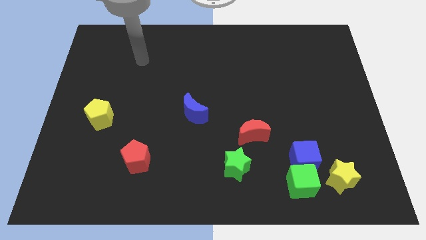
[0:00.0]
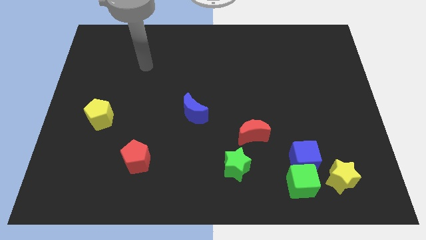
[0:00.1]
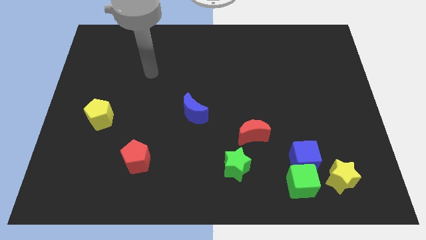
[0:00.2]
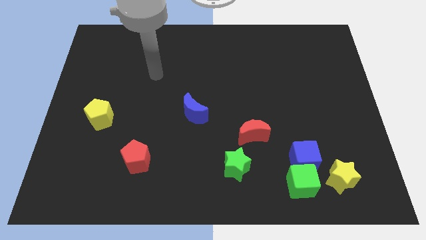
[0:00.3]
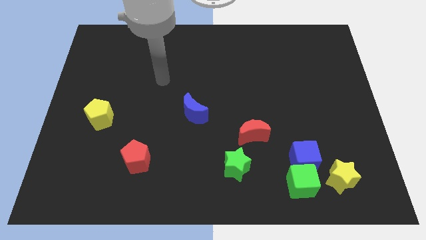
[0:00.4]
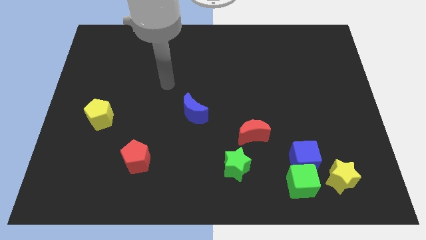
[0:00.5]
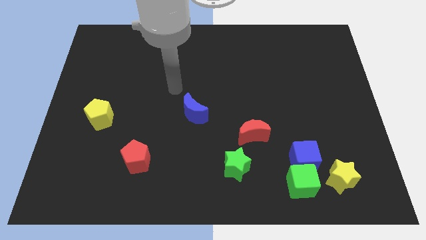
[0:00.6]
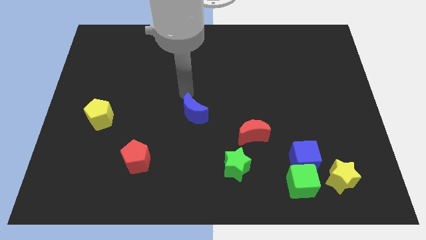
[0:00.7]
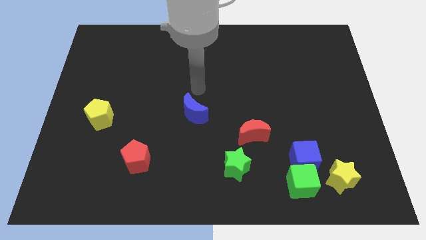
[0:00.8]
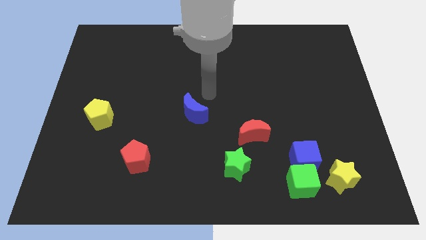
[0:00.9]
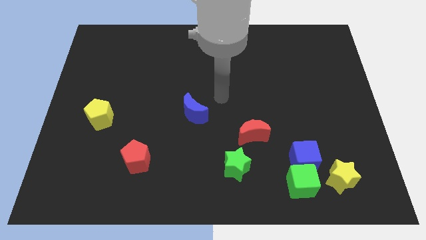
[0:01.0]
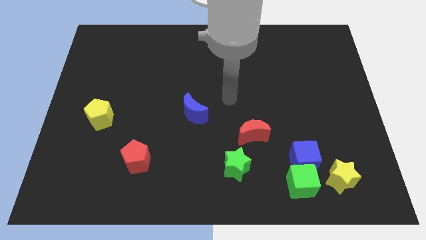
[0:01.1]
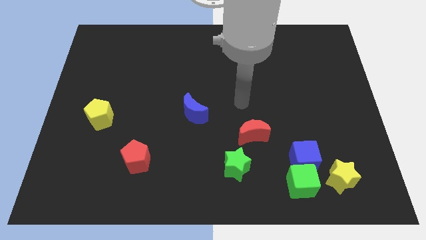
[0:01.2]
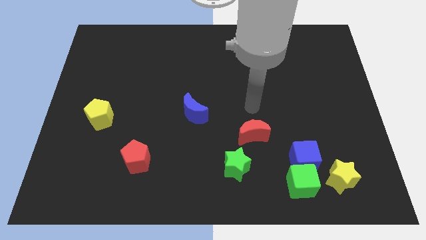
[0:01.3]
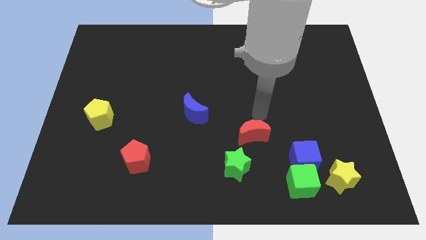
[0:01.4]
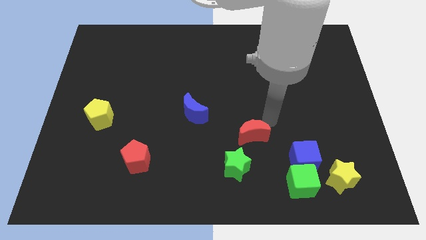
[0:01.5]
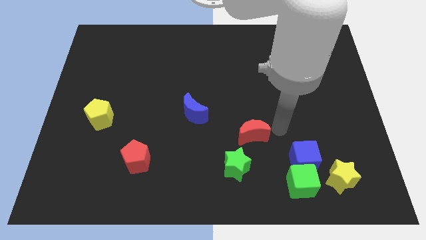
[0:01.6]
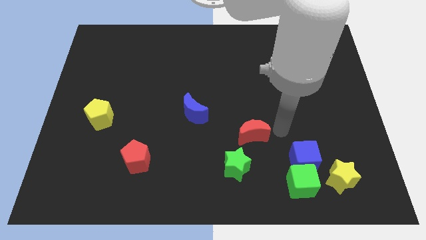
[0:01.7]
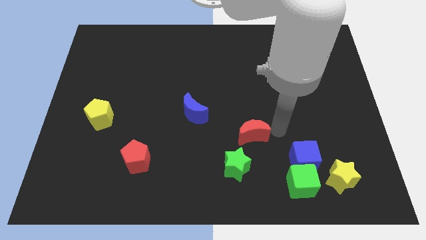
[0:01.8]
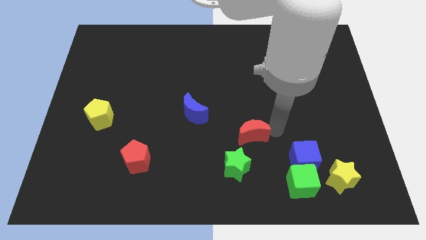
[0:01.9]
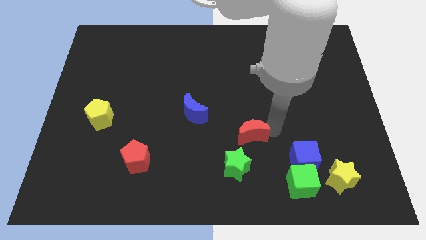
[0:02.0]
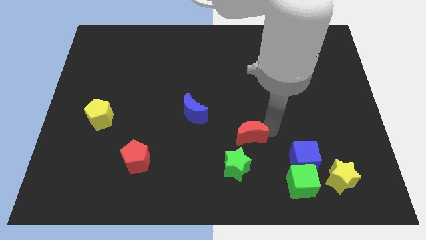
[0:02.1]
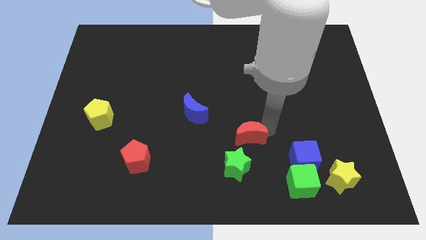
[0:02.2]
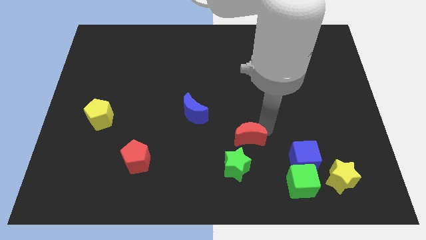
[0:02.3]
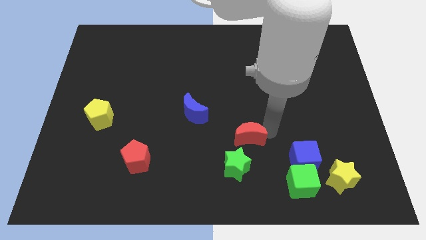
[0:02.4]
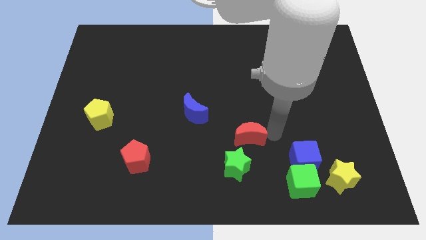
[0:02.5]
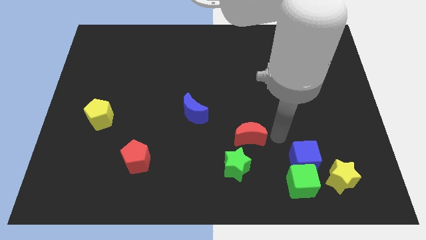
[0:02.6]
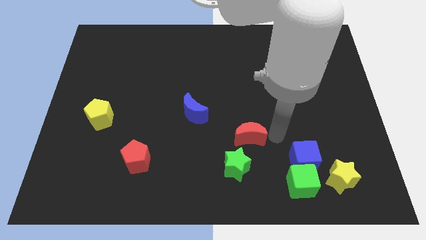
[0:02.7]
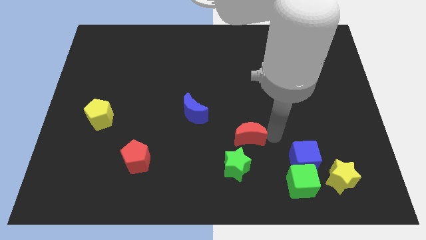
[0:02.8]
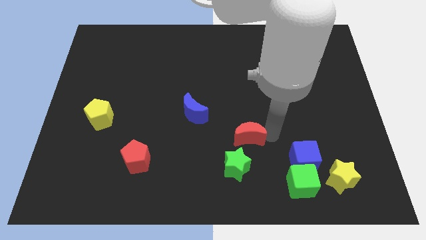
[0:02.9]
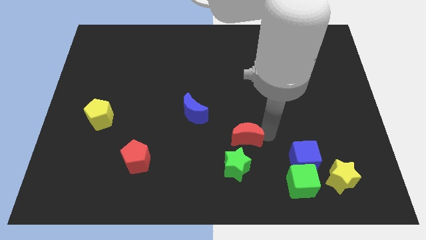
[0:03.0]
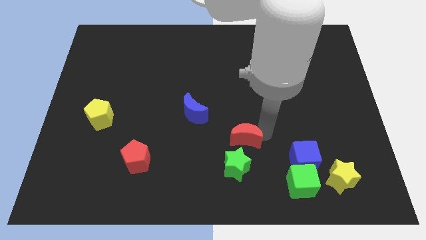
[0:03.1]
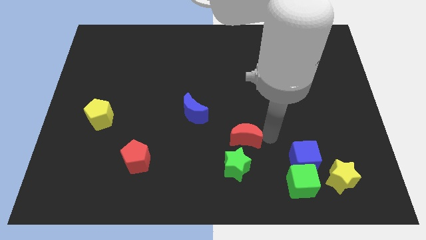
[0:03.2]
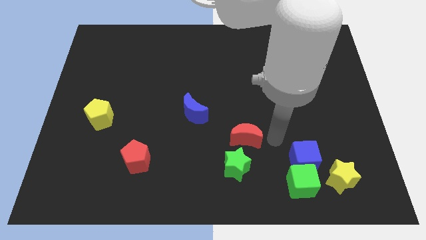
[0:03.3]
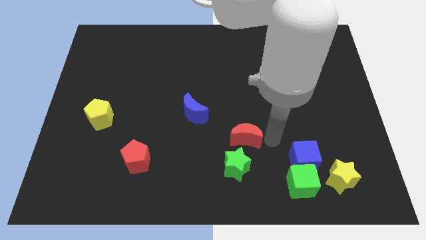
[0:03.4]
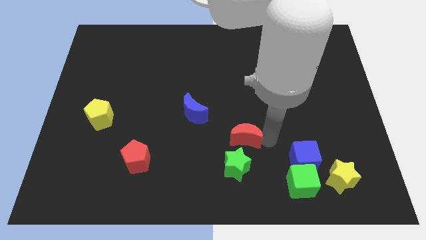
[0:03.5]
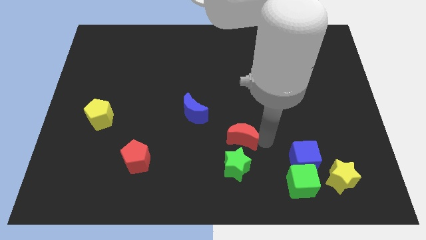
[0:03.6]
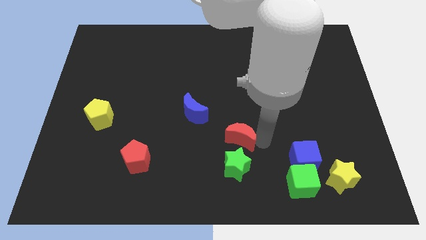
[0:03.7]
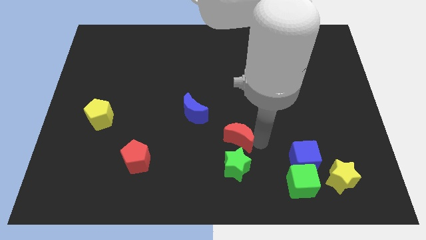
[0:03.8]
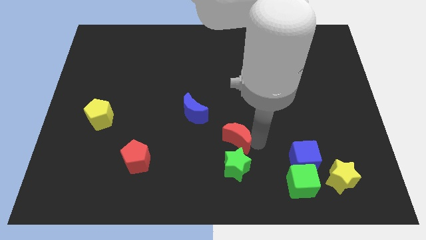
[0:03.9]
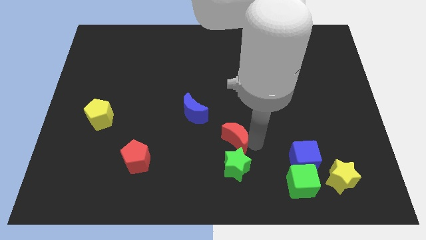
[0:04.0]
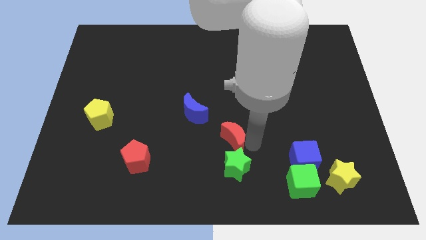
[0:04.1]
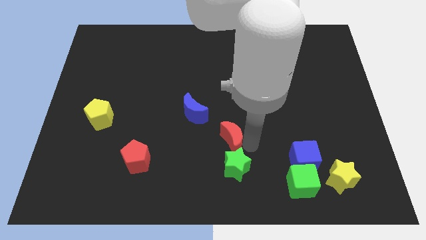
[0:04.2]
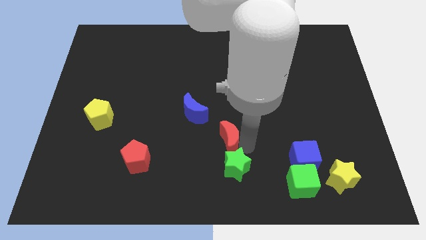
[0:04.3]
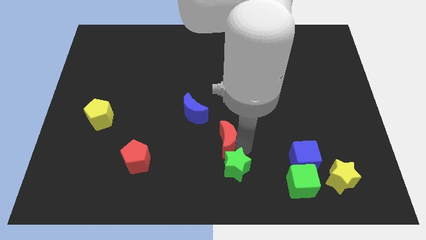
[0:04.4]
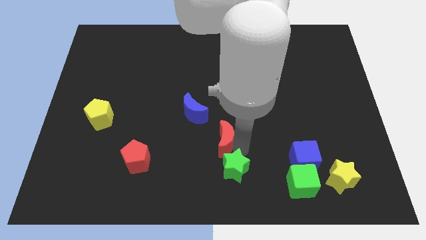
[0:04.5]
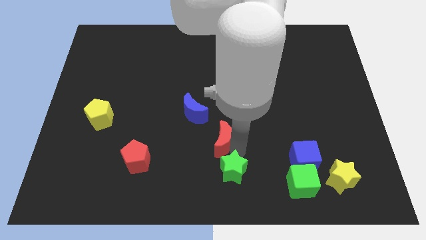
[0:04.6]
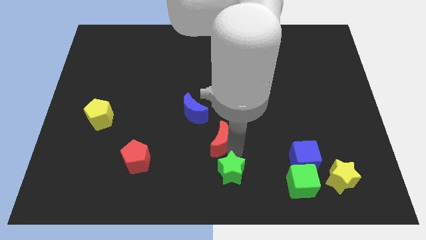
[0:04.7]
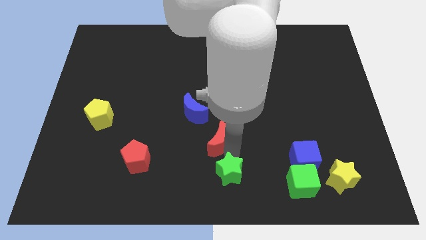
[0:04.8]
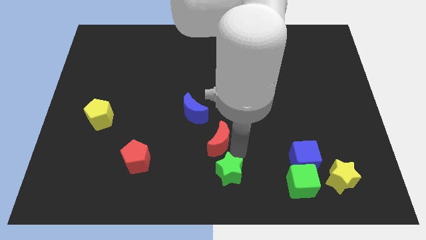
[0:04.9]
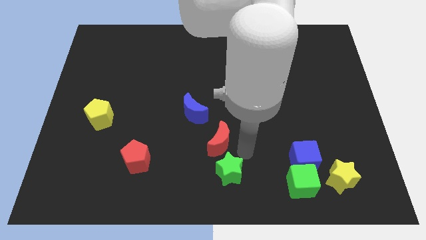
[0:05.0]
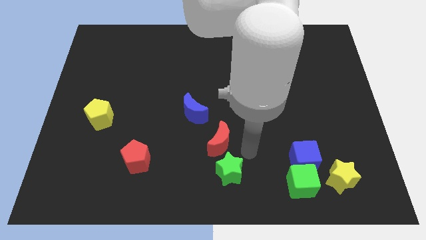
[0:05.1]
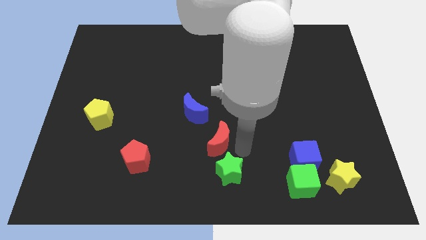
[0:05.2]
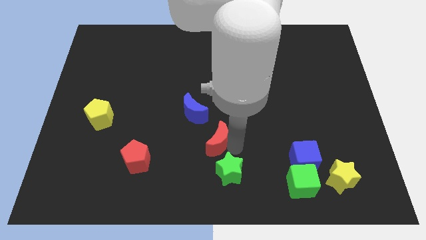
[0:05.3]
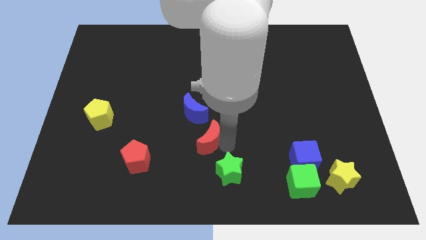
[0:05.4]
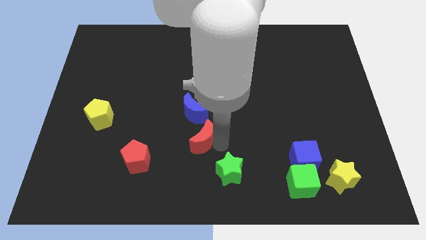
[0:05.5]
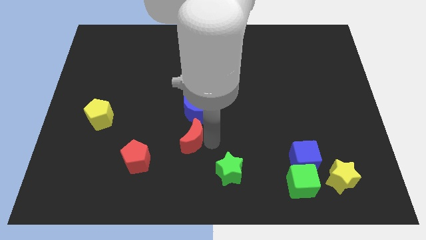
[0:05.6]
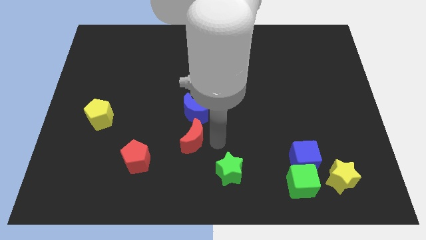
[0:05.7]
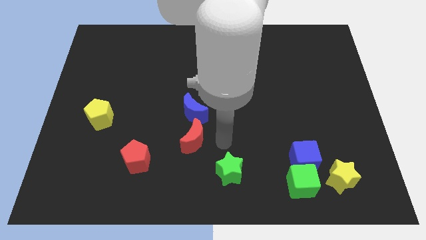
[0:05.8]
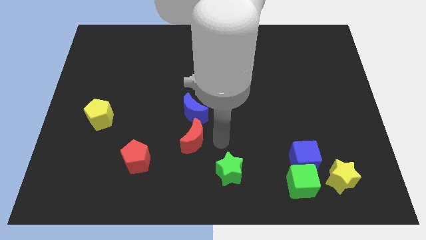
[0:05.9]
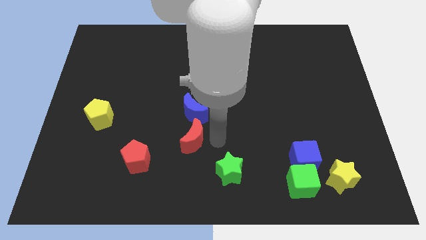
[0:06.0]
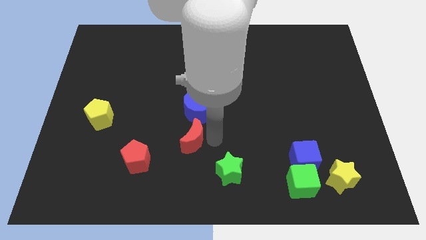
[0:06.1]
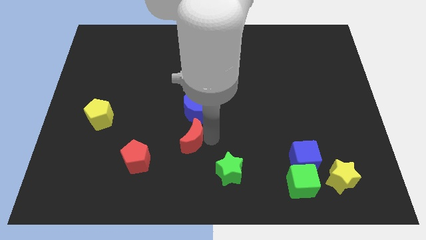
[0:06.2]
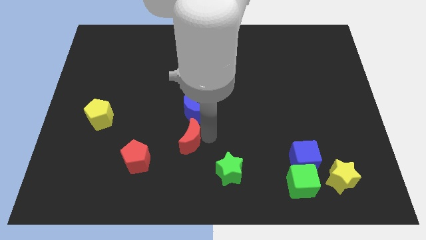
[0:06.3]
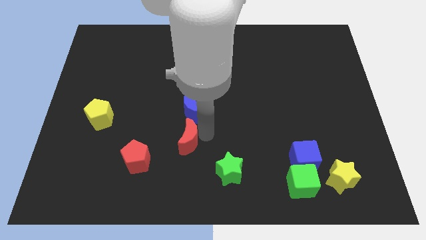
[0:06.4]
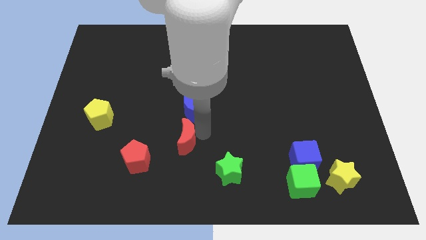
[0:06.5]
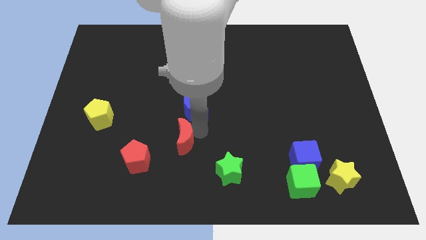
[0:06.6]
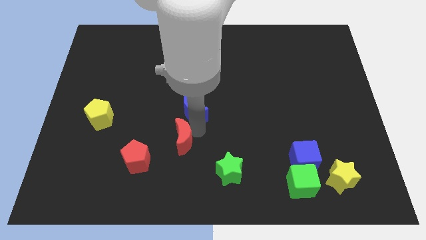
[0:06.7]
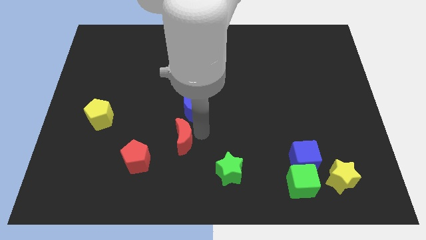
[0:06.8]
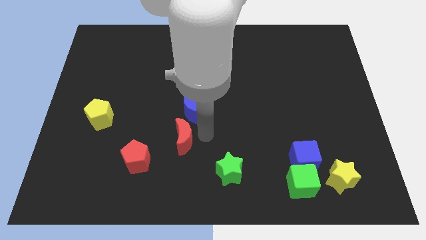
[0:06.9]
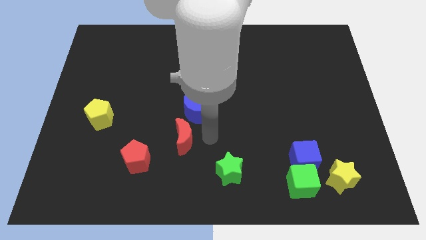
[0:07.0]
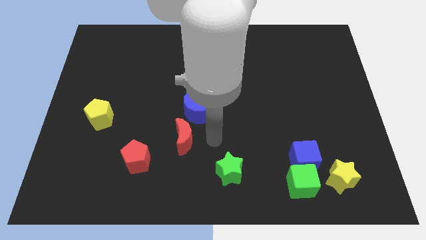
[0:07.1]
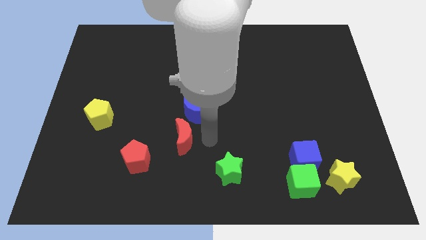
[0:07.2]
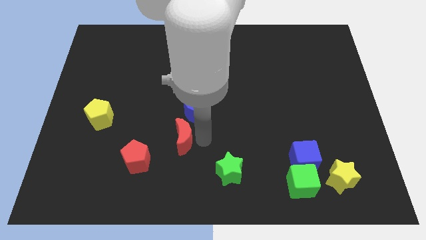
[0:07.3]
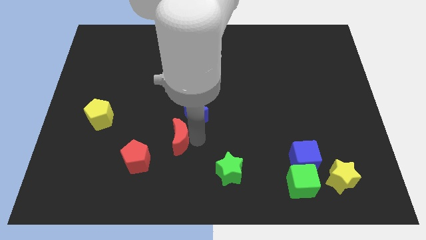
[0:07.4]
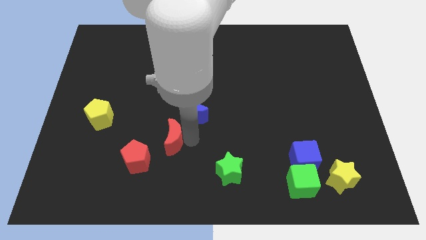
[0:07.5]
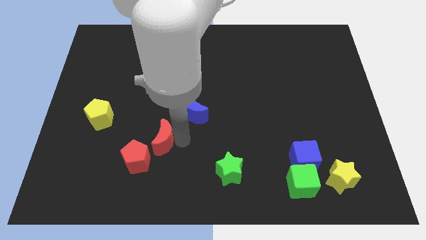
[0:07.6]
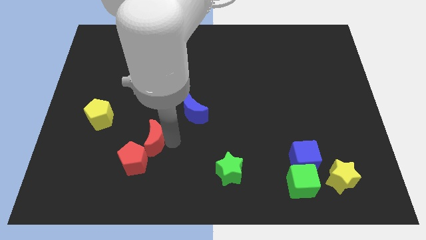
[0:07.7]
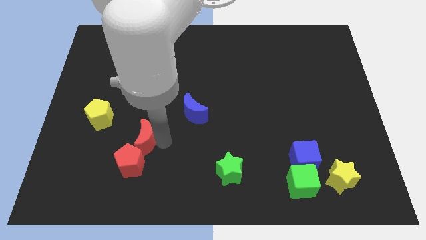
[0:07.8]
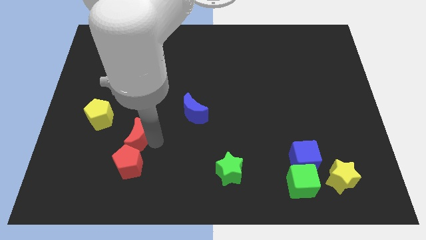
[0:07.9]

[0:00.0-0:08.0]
put the red moon to the bottom right side of the yellow pentagon
